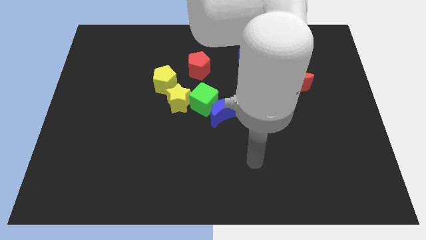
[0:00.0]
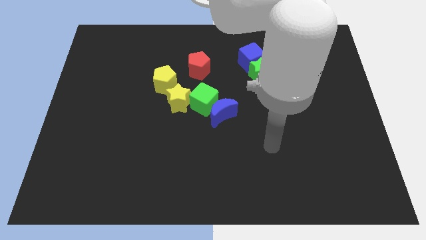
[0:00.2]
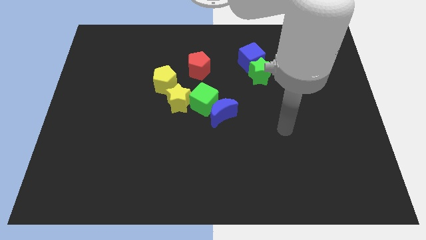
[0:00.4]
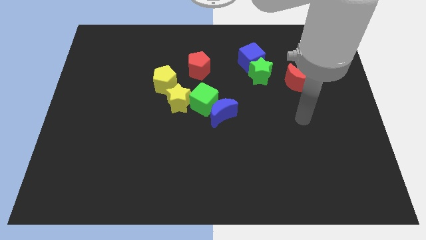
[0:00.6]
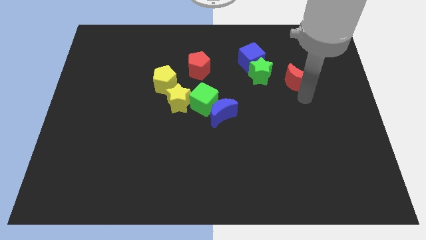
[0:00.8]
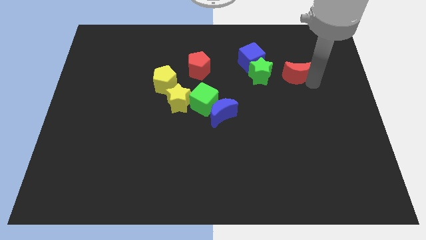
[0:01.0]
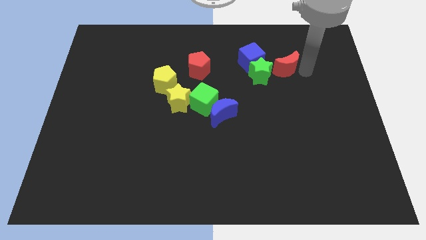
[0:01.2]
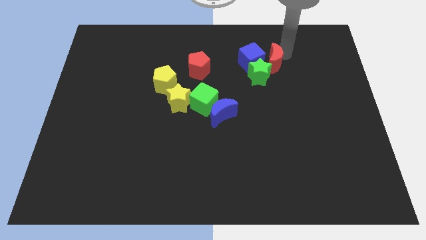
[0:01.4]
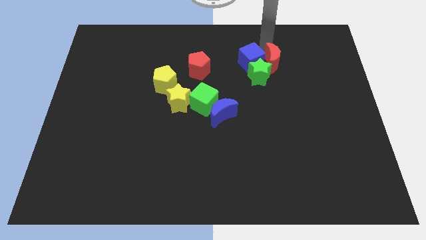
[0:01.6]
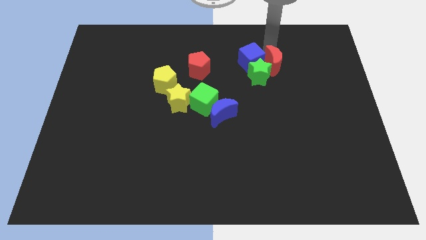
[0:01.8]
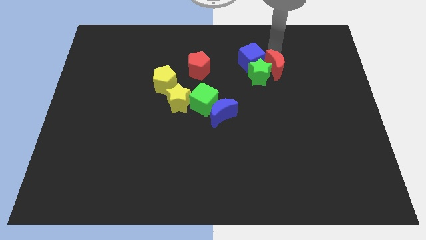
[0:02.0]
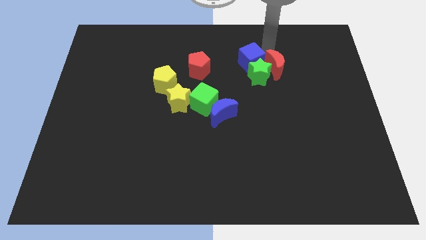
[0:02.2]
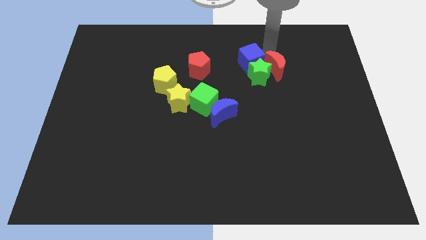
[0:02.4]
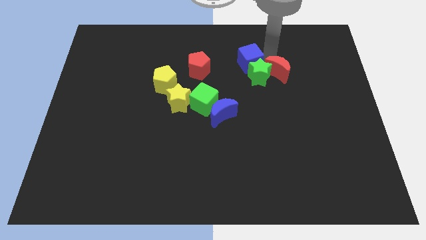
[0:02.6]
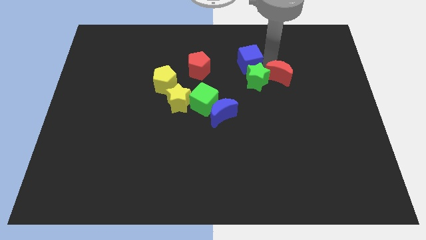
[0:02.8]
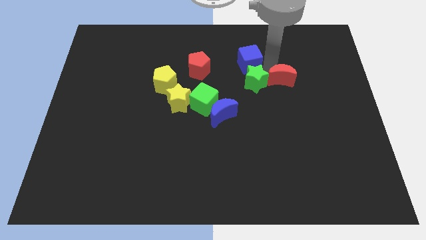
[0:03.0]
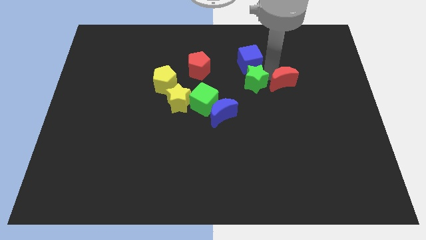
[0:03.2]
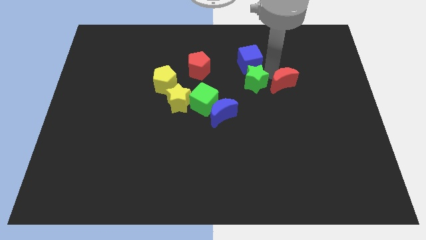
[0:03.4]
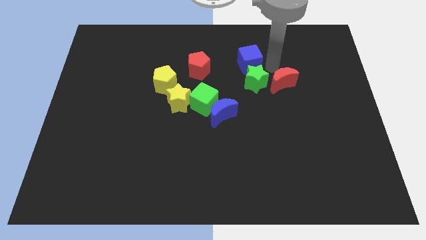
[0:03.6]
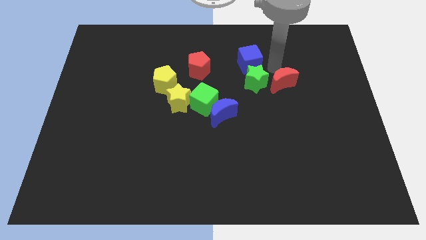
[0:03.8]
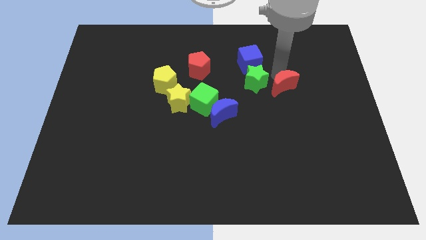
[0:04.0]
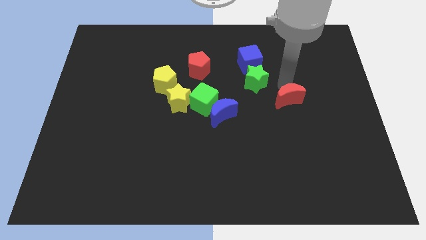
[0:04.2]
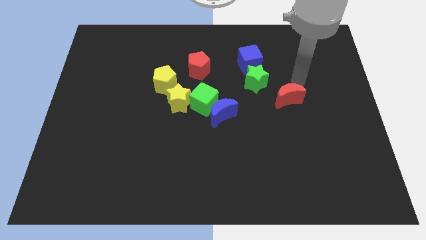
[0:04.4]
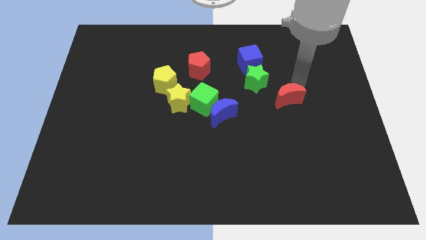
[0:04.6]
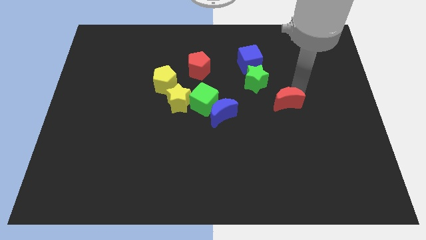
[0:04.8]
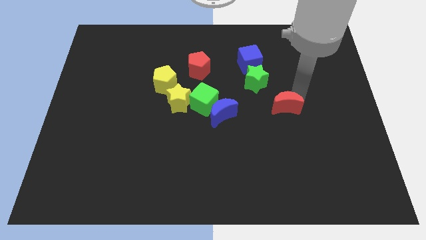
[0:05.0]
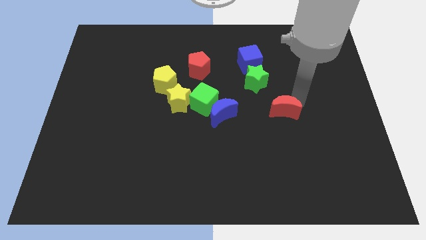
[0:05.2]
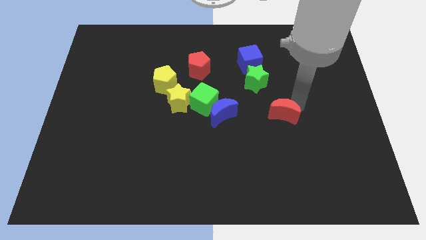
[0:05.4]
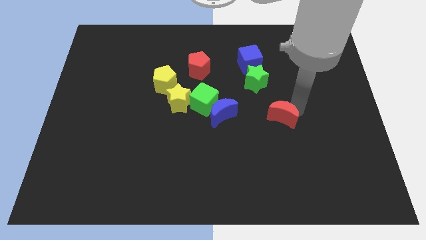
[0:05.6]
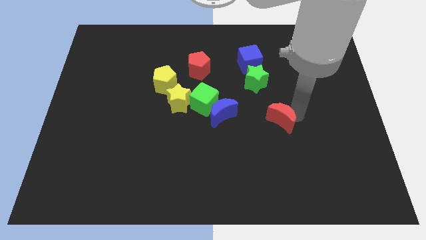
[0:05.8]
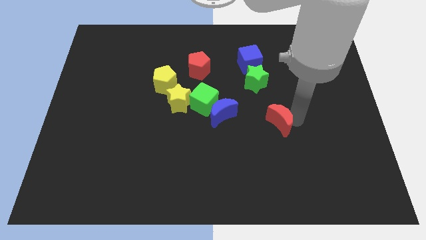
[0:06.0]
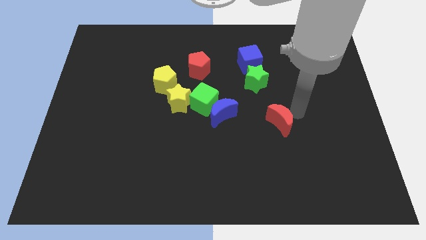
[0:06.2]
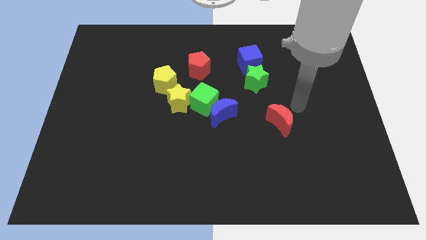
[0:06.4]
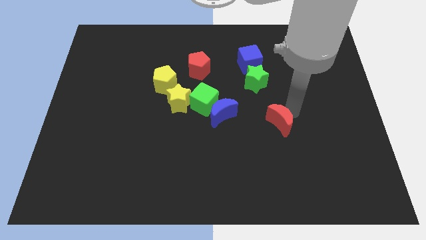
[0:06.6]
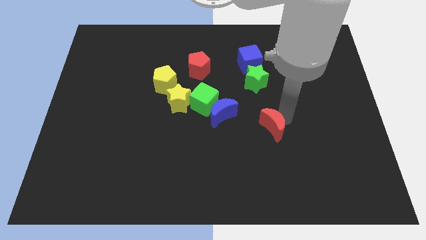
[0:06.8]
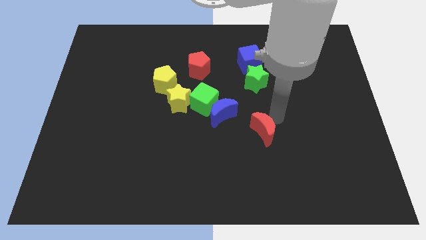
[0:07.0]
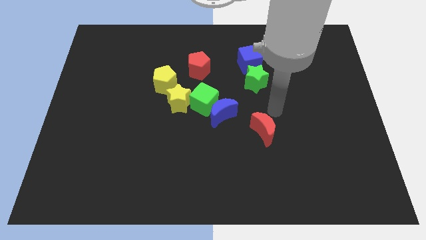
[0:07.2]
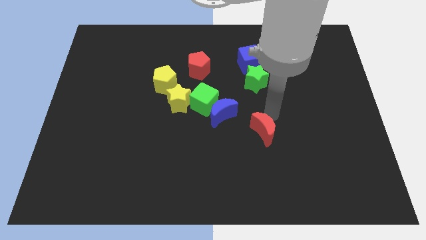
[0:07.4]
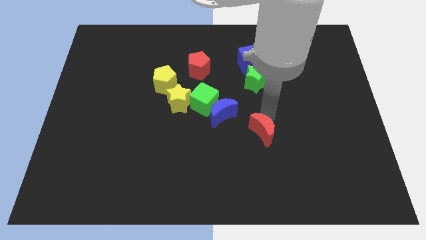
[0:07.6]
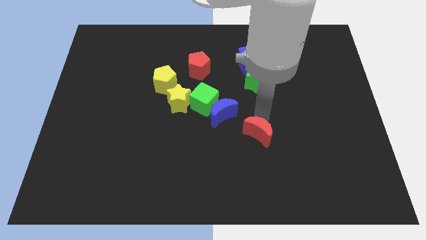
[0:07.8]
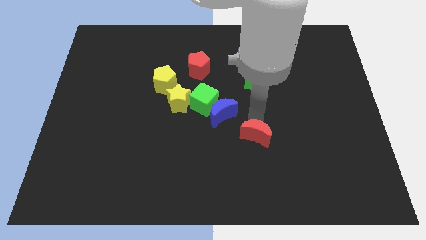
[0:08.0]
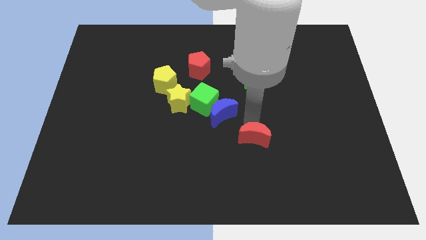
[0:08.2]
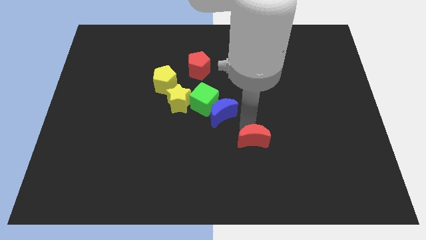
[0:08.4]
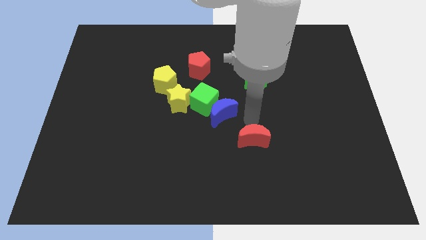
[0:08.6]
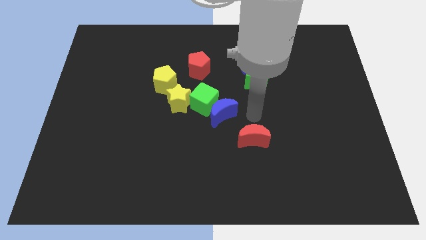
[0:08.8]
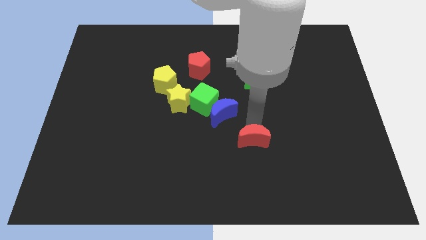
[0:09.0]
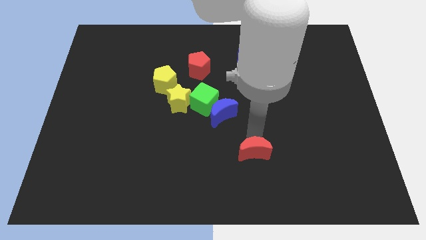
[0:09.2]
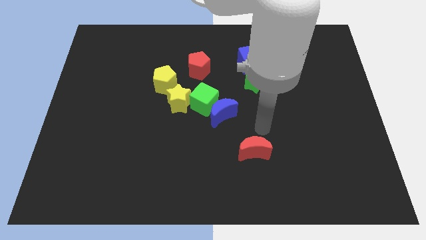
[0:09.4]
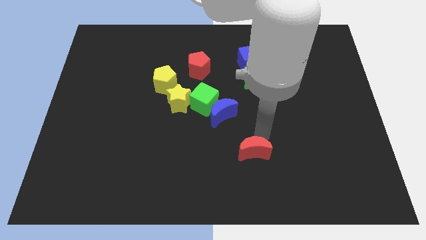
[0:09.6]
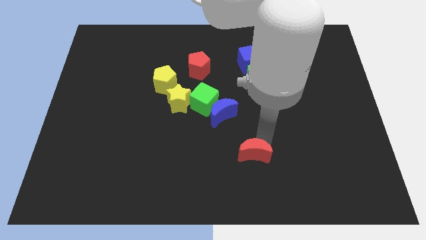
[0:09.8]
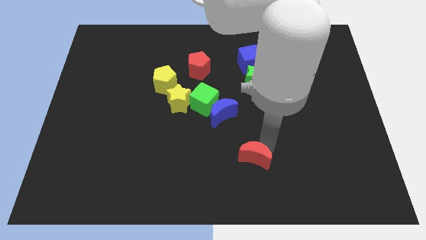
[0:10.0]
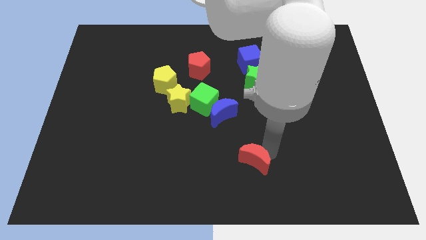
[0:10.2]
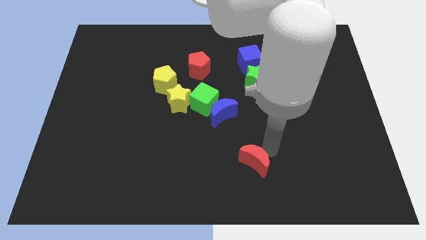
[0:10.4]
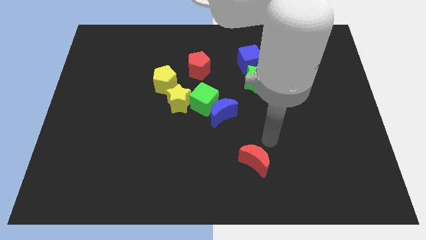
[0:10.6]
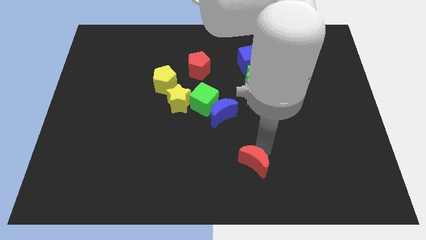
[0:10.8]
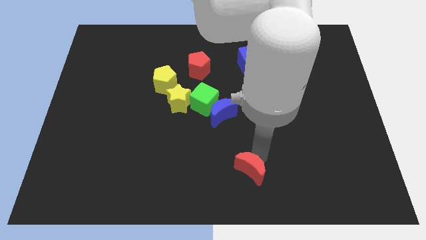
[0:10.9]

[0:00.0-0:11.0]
put the red moon to the bottom side
